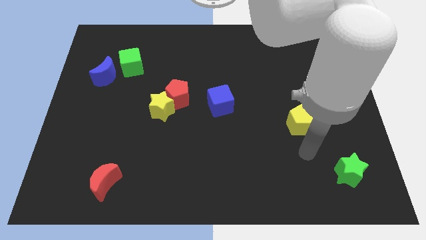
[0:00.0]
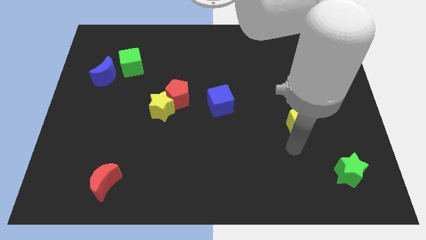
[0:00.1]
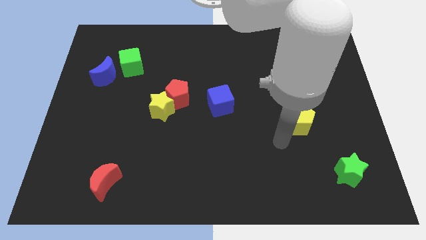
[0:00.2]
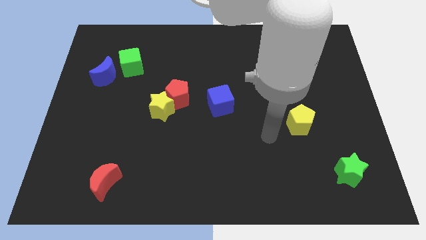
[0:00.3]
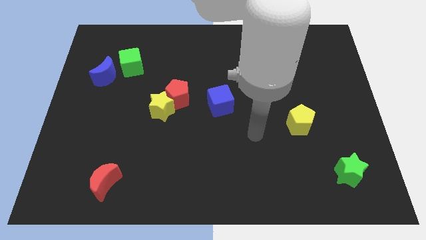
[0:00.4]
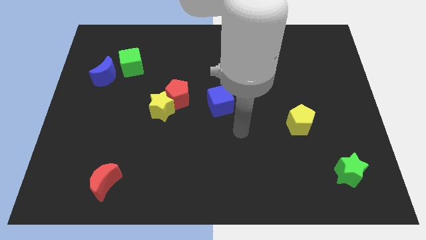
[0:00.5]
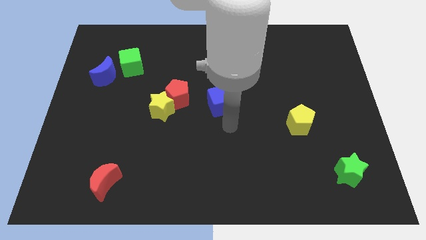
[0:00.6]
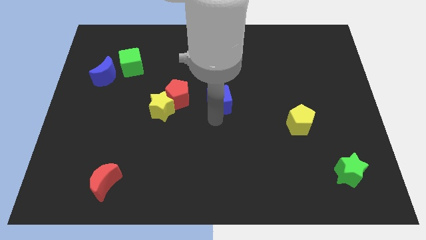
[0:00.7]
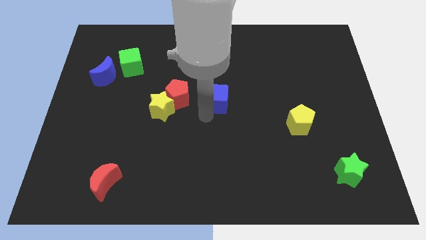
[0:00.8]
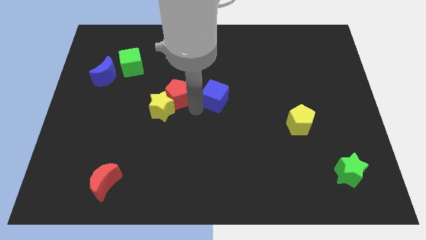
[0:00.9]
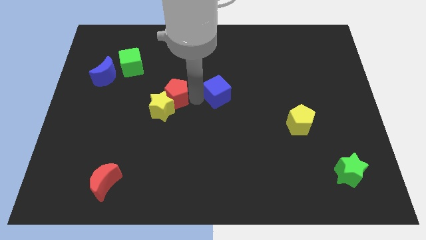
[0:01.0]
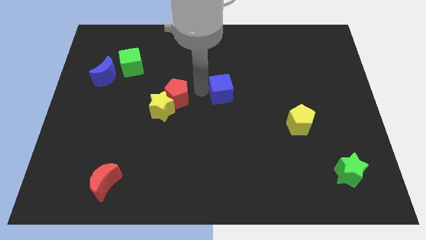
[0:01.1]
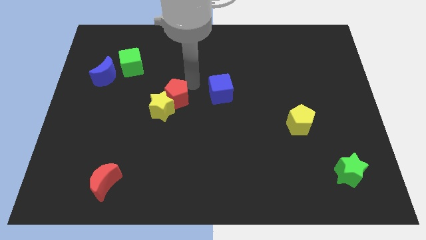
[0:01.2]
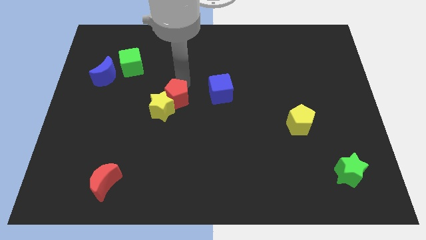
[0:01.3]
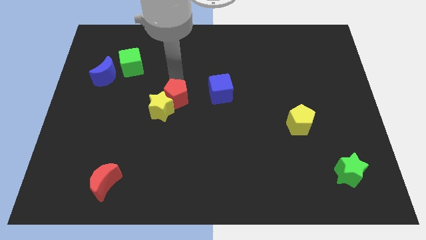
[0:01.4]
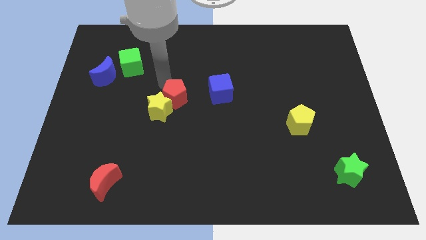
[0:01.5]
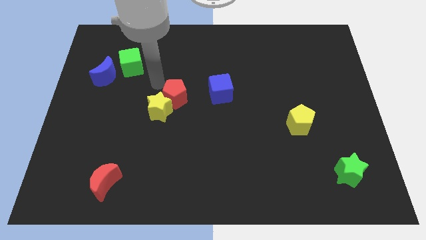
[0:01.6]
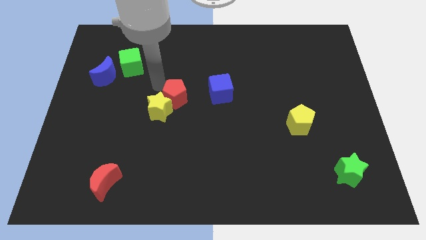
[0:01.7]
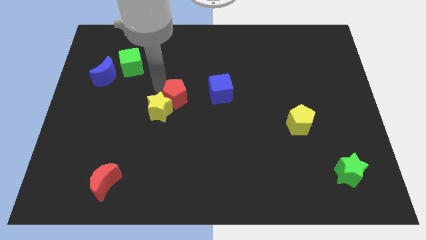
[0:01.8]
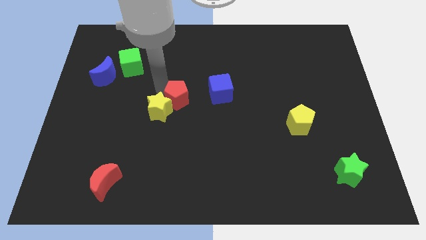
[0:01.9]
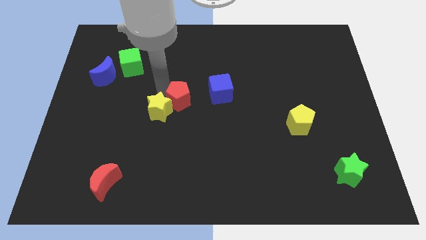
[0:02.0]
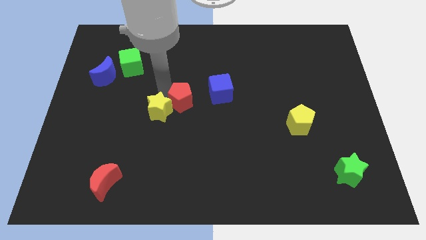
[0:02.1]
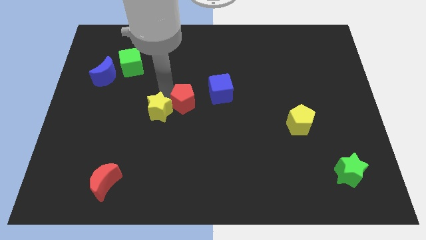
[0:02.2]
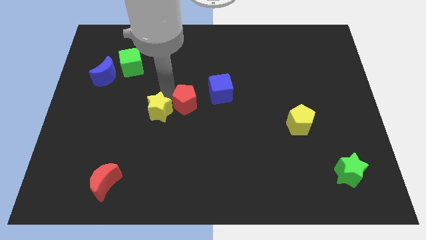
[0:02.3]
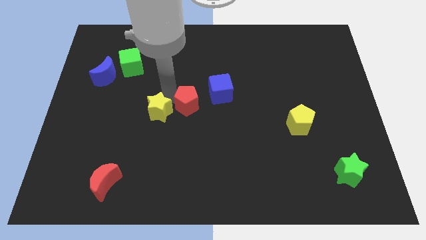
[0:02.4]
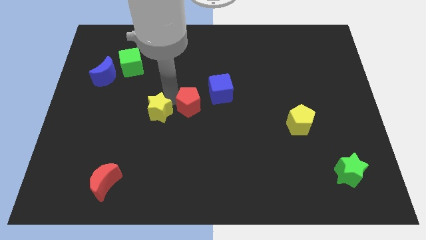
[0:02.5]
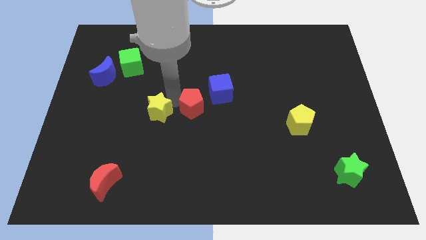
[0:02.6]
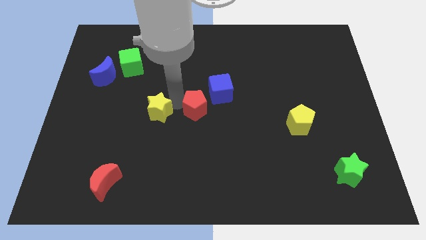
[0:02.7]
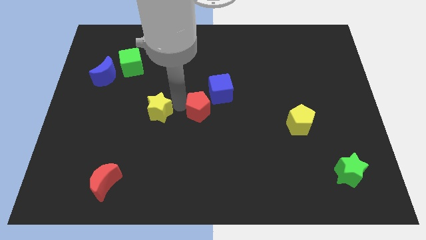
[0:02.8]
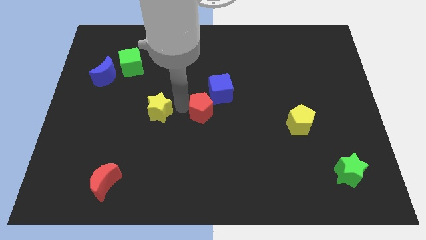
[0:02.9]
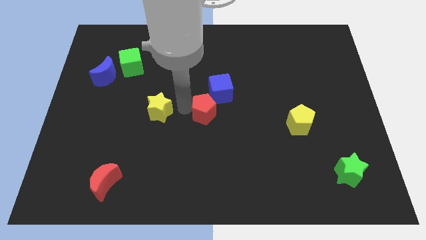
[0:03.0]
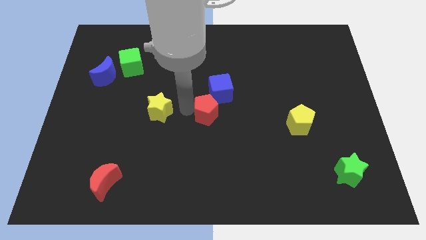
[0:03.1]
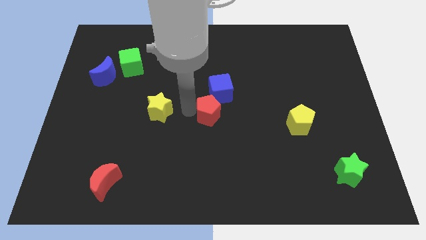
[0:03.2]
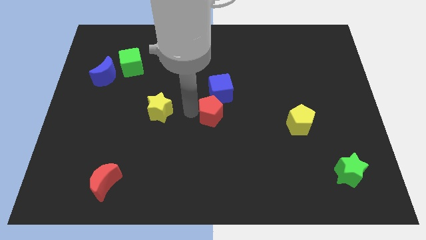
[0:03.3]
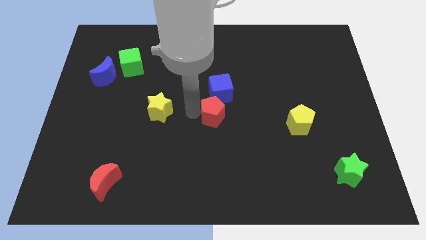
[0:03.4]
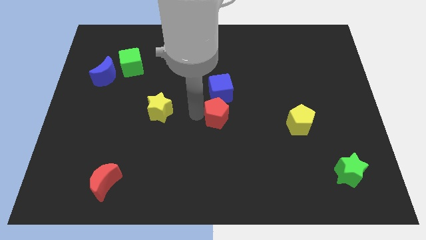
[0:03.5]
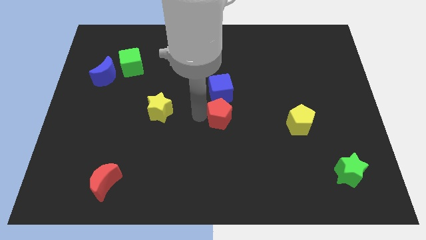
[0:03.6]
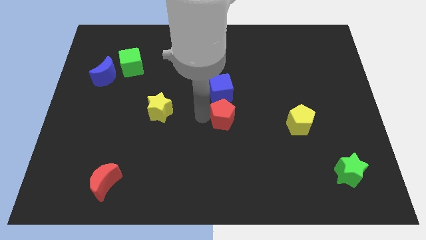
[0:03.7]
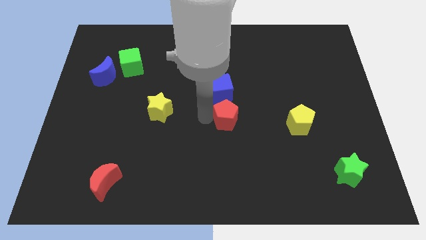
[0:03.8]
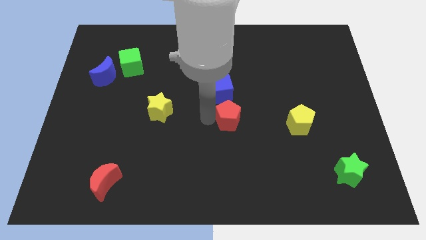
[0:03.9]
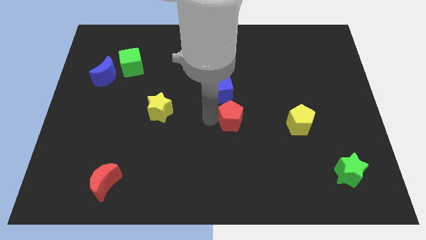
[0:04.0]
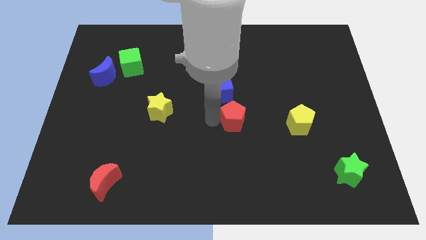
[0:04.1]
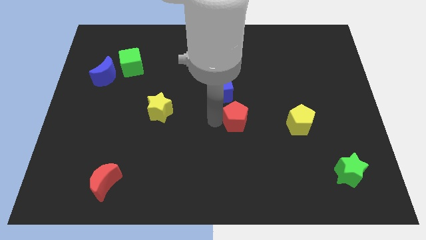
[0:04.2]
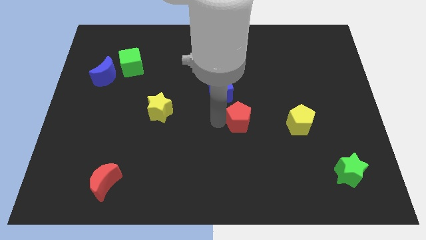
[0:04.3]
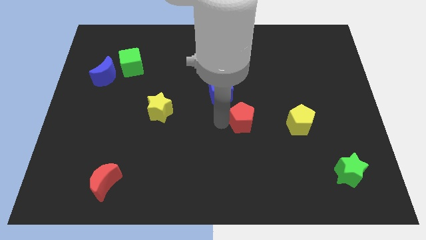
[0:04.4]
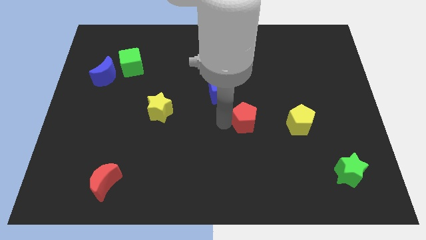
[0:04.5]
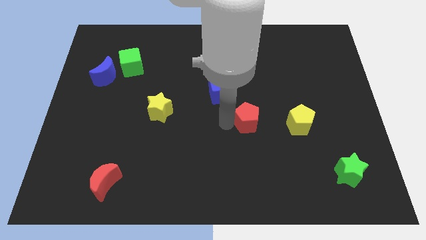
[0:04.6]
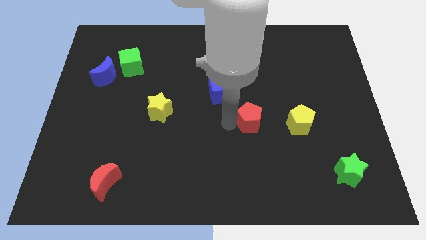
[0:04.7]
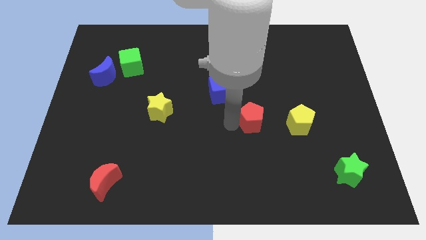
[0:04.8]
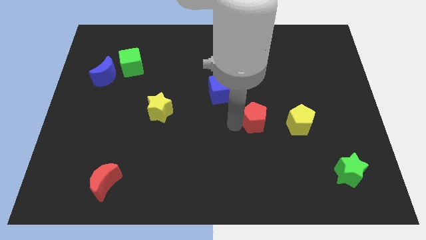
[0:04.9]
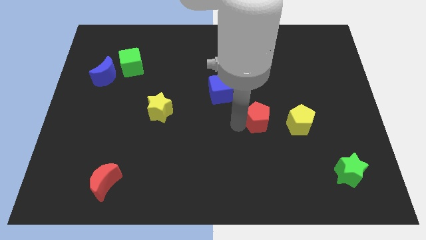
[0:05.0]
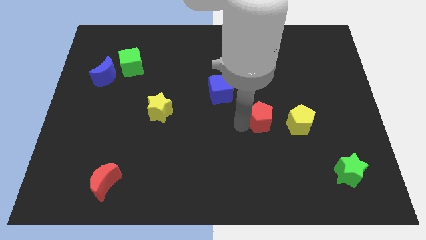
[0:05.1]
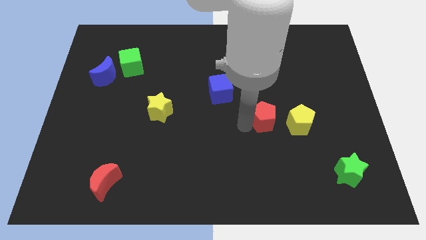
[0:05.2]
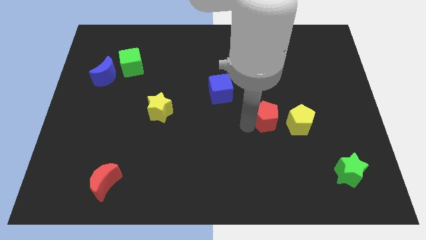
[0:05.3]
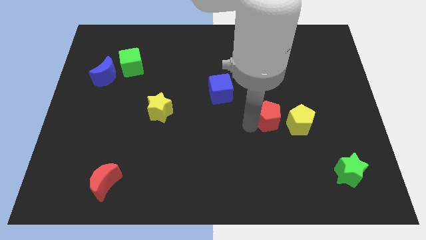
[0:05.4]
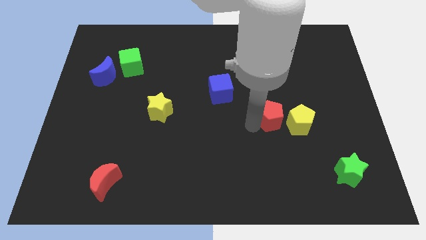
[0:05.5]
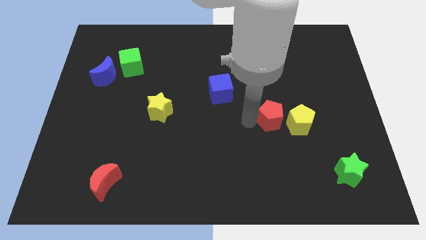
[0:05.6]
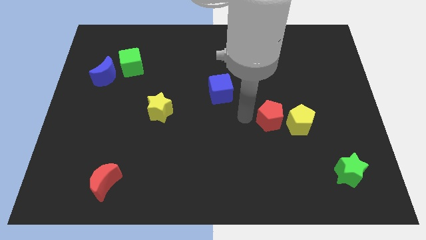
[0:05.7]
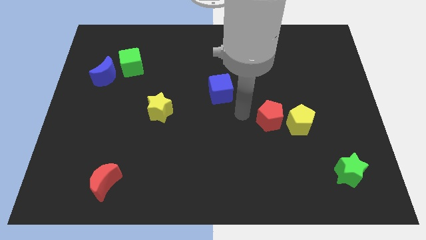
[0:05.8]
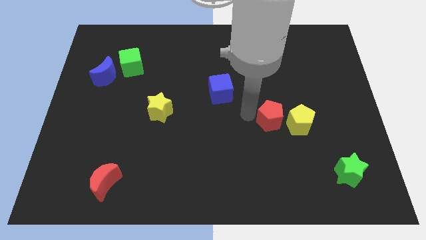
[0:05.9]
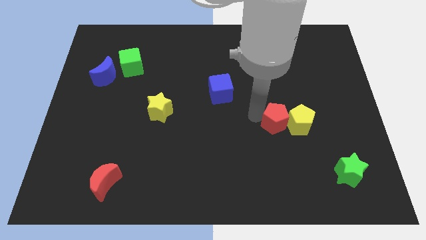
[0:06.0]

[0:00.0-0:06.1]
slide the red pentagon close to the yellow pentagon

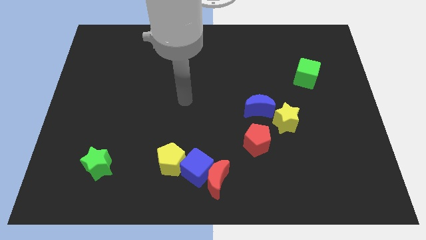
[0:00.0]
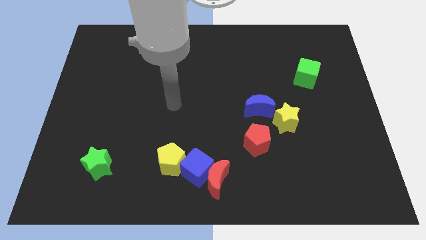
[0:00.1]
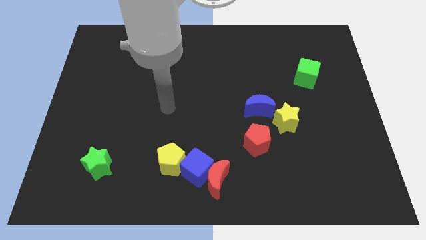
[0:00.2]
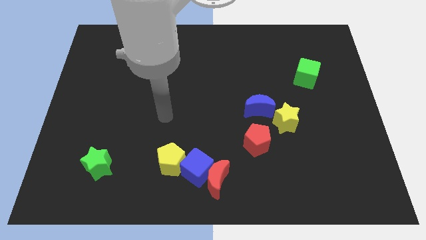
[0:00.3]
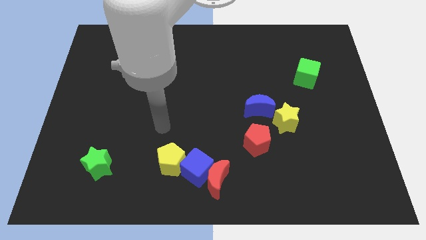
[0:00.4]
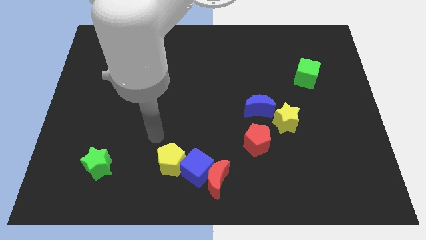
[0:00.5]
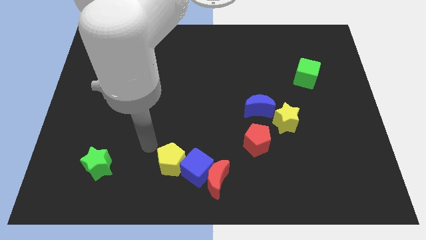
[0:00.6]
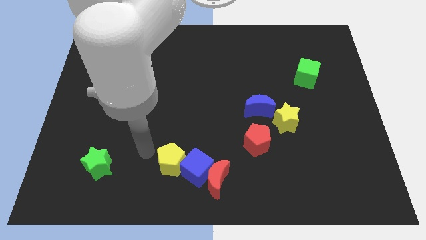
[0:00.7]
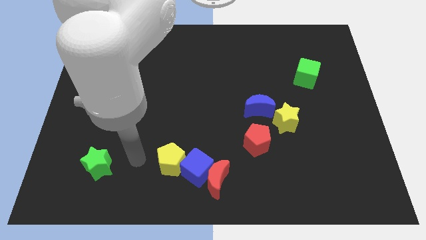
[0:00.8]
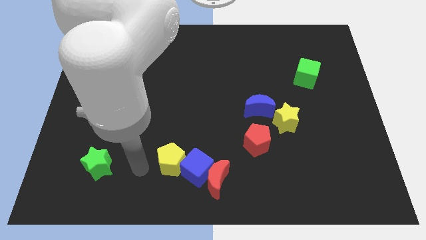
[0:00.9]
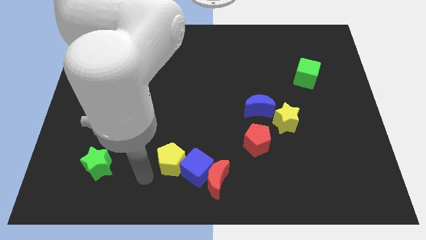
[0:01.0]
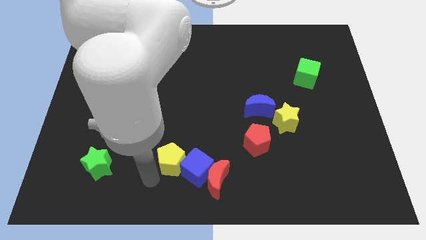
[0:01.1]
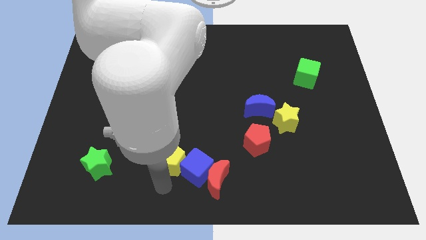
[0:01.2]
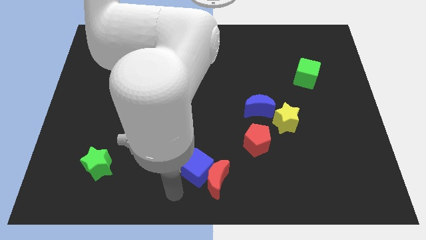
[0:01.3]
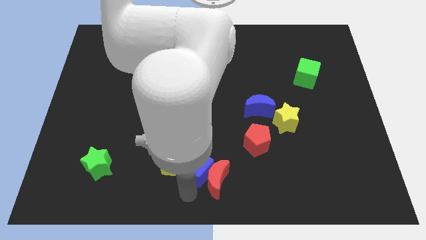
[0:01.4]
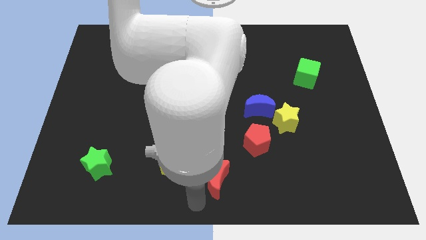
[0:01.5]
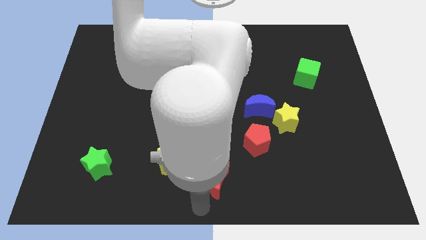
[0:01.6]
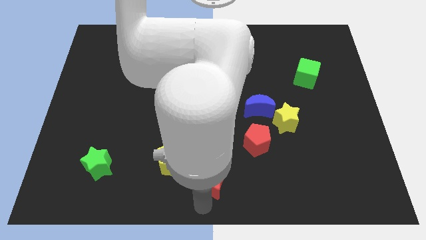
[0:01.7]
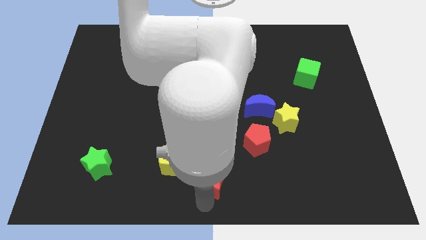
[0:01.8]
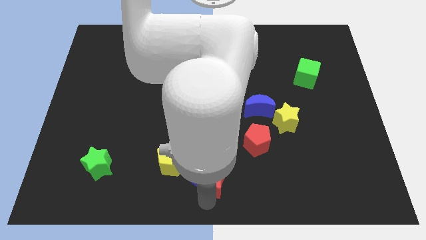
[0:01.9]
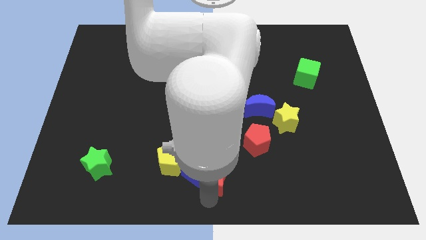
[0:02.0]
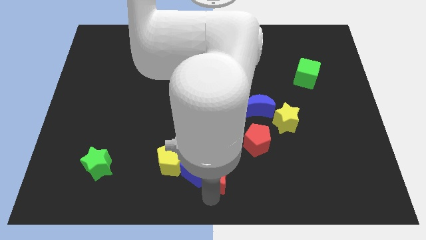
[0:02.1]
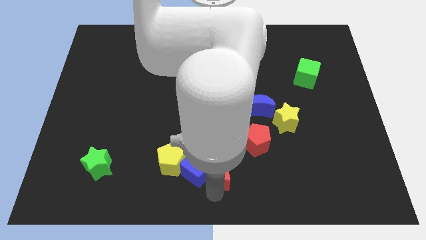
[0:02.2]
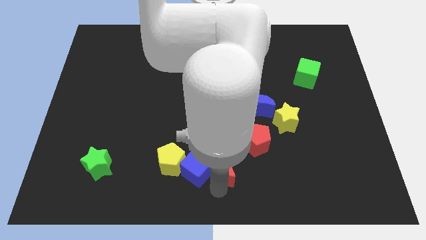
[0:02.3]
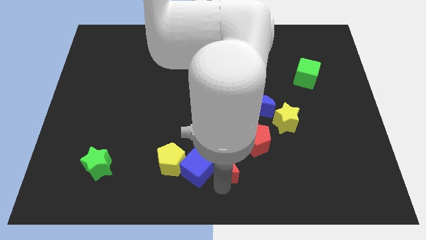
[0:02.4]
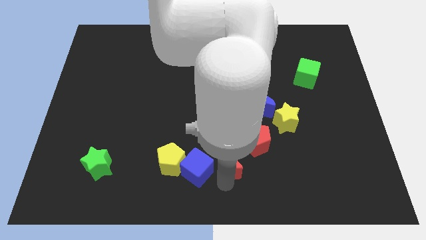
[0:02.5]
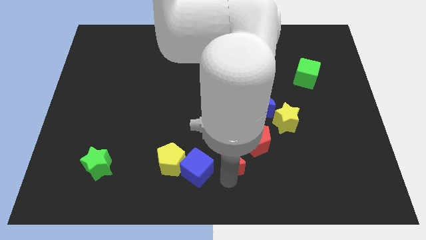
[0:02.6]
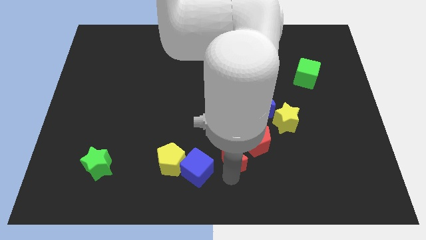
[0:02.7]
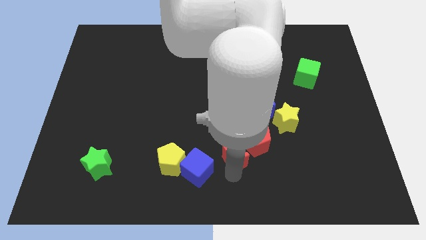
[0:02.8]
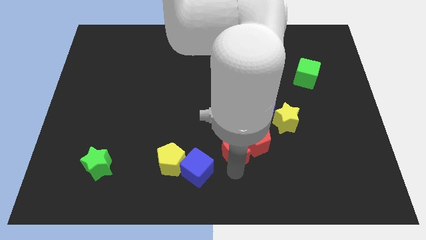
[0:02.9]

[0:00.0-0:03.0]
move the red moon close to the red pentagon
